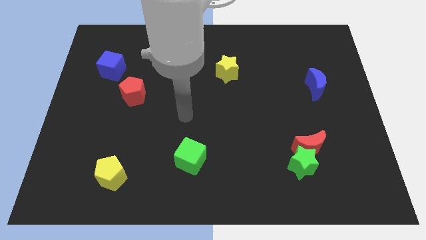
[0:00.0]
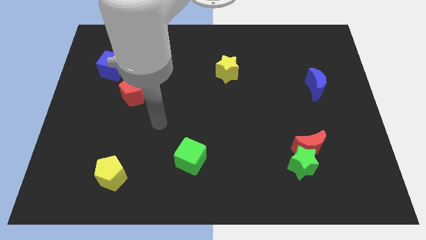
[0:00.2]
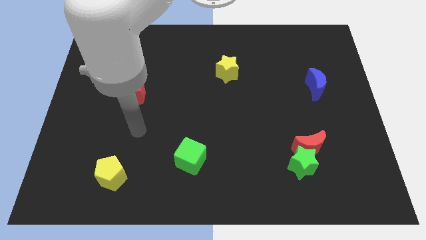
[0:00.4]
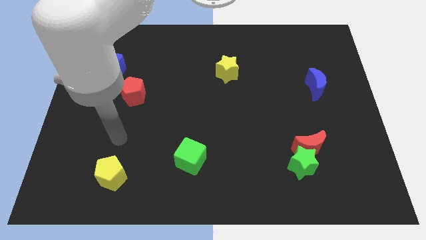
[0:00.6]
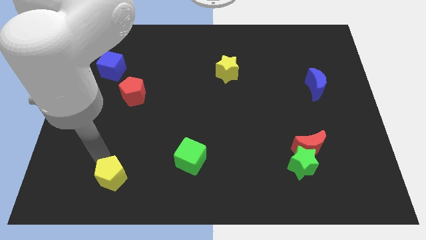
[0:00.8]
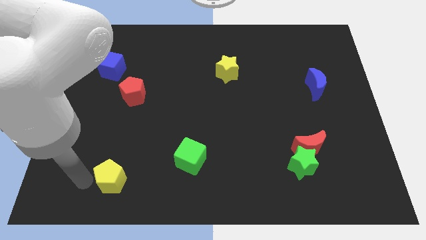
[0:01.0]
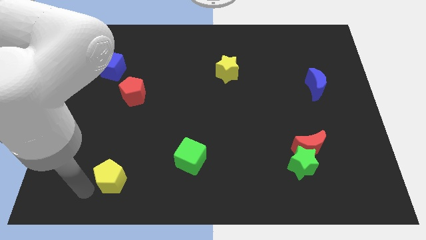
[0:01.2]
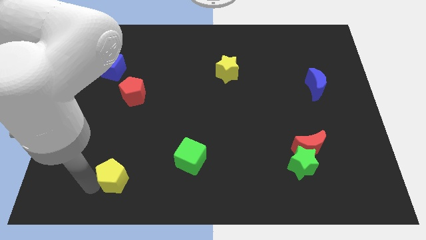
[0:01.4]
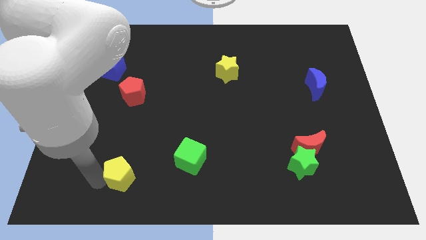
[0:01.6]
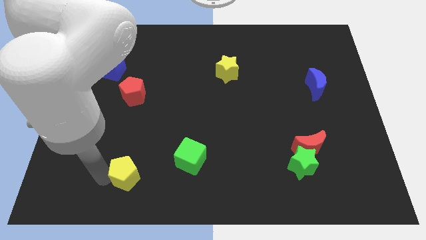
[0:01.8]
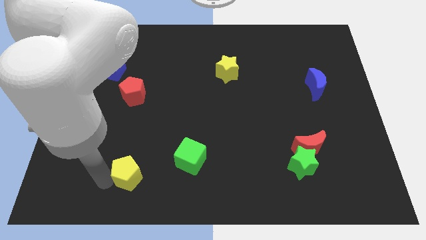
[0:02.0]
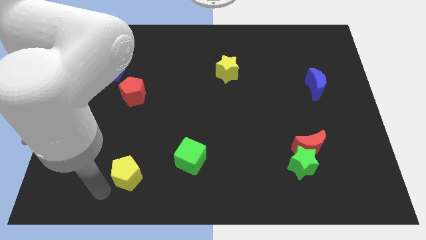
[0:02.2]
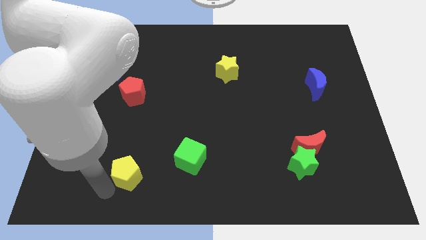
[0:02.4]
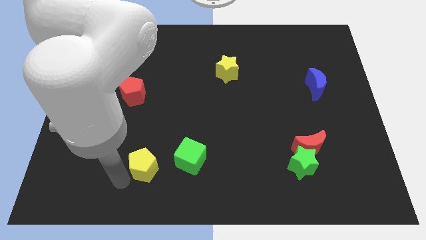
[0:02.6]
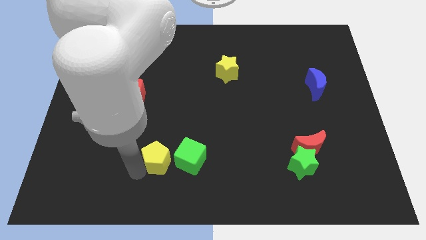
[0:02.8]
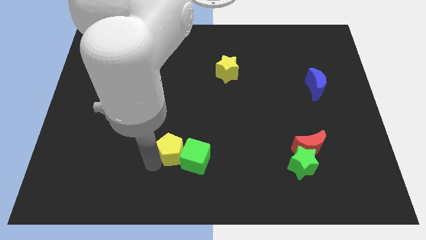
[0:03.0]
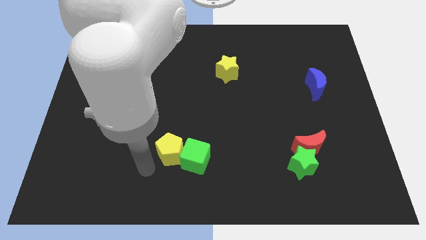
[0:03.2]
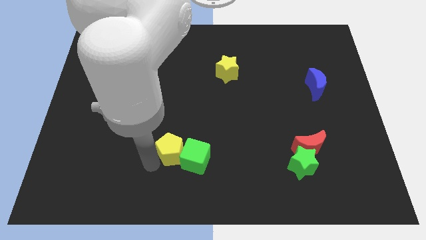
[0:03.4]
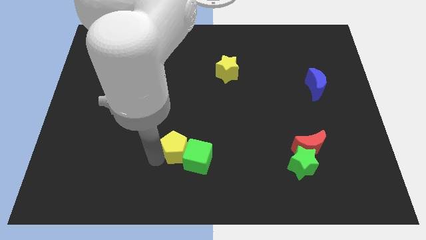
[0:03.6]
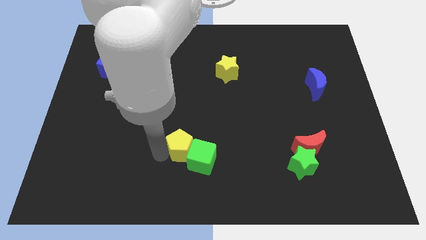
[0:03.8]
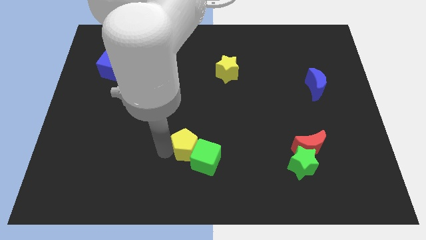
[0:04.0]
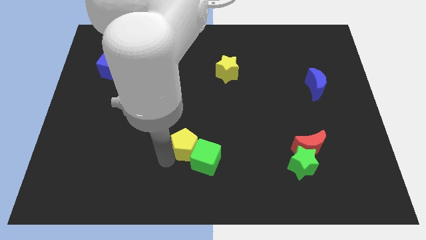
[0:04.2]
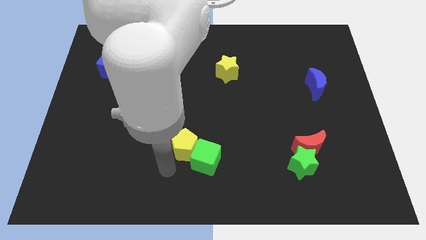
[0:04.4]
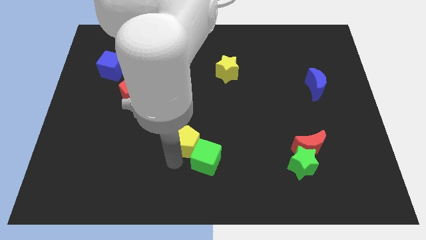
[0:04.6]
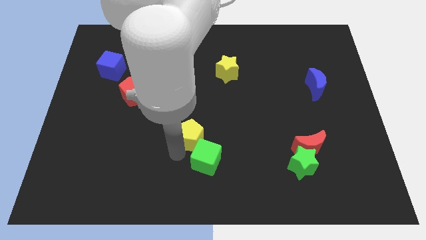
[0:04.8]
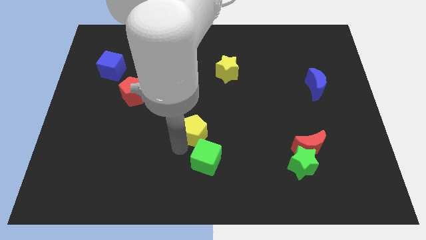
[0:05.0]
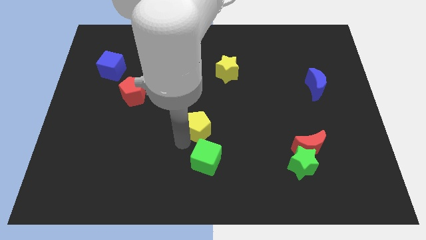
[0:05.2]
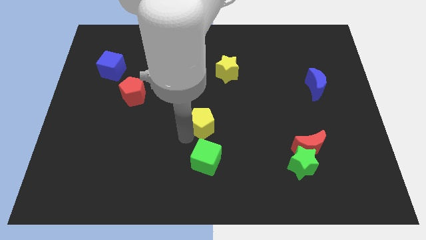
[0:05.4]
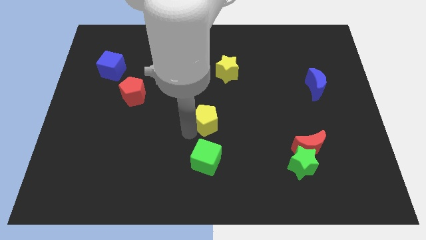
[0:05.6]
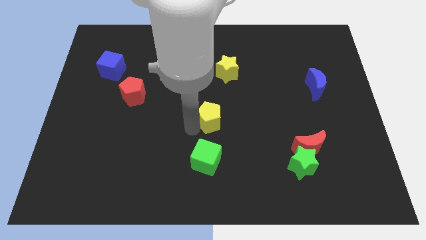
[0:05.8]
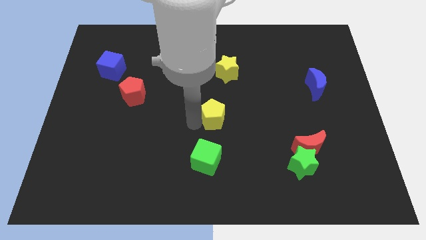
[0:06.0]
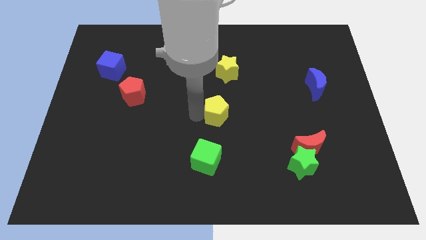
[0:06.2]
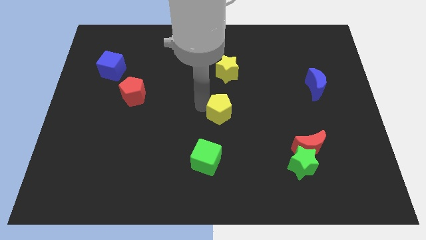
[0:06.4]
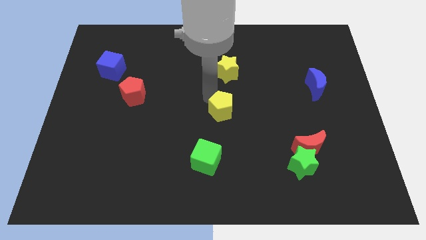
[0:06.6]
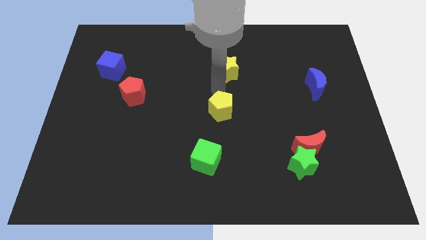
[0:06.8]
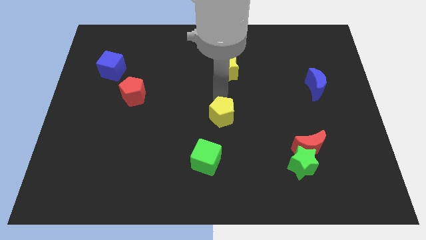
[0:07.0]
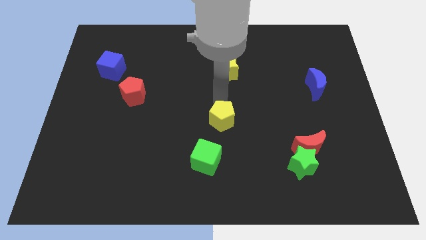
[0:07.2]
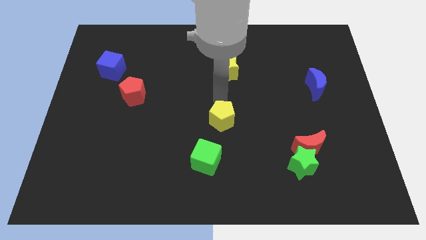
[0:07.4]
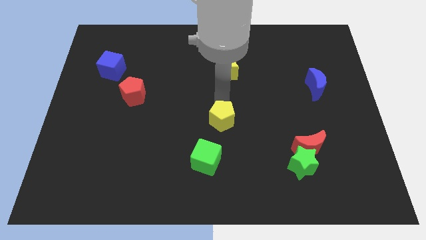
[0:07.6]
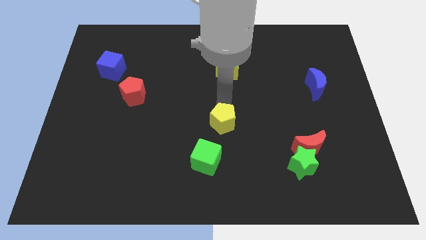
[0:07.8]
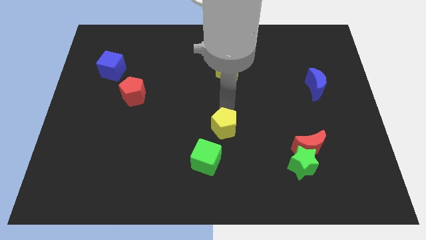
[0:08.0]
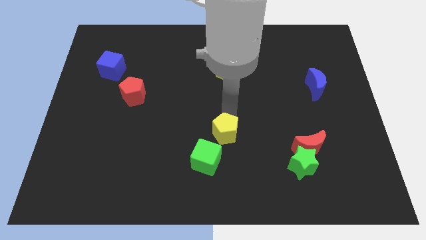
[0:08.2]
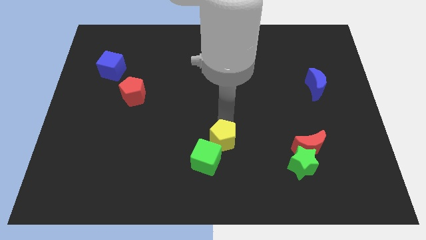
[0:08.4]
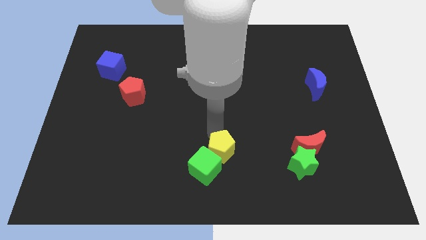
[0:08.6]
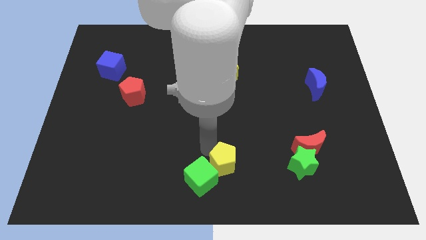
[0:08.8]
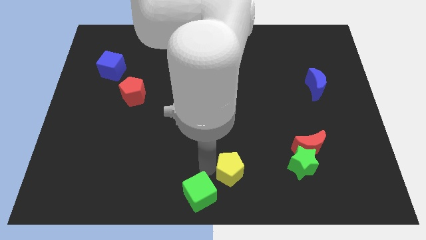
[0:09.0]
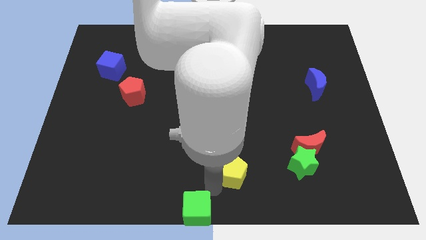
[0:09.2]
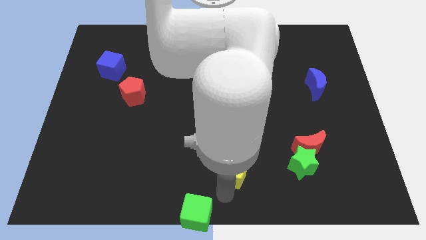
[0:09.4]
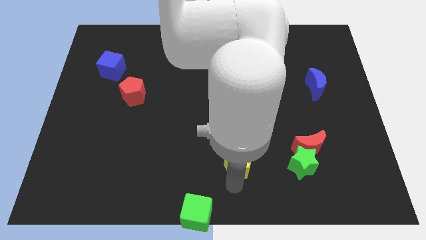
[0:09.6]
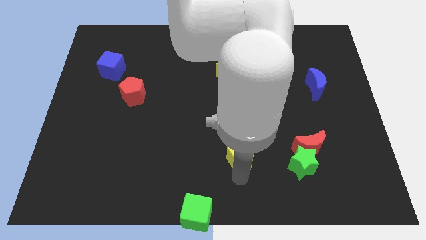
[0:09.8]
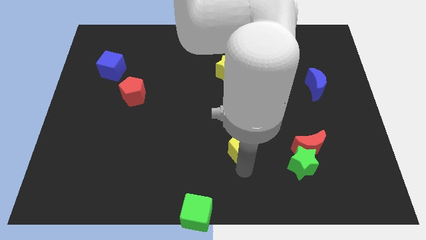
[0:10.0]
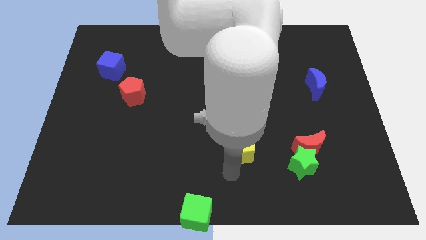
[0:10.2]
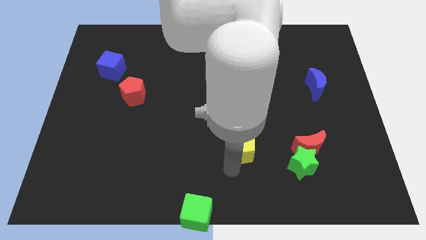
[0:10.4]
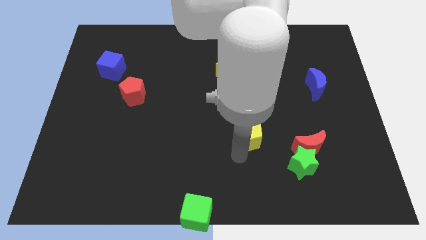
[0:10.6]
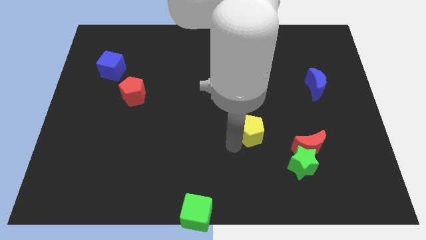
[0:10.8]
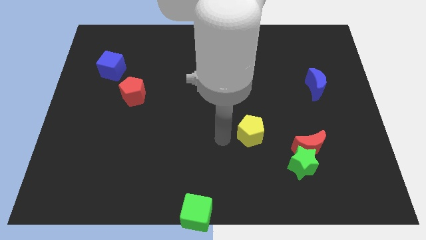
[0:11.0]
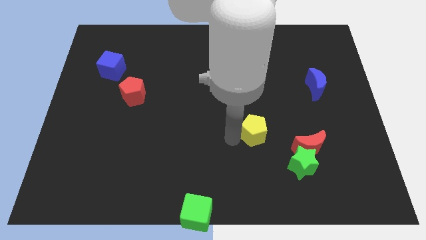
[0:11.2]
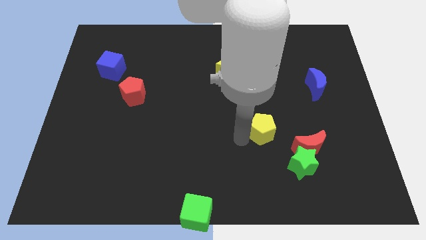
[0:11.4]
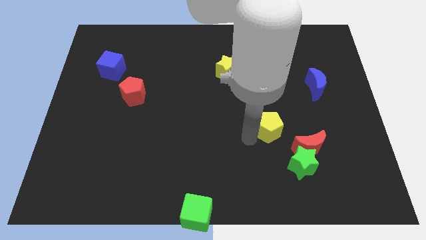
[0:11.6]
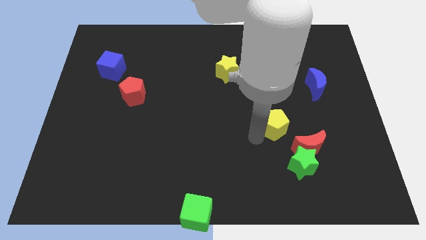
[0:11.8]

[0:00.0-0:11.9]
slide the yellow pentagon above the green star

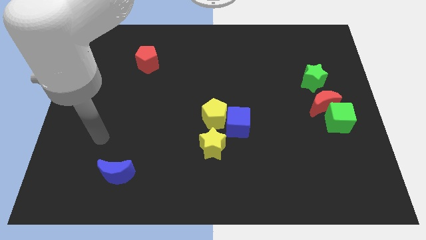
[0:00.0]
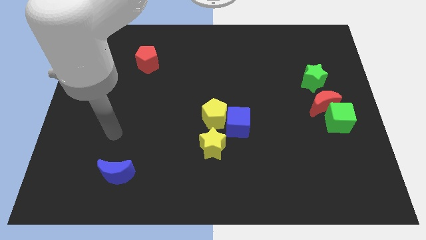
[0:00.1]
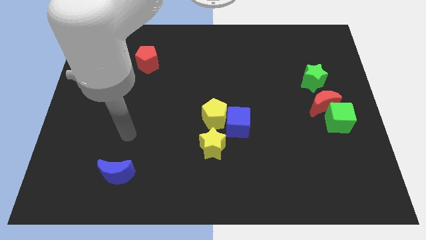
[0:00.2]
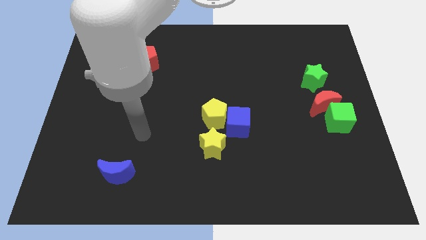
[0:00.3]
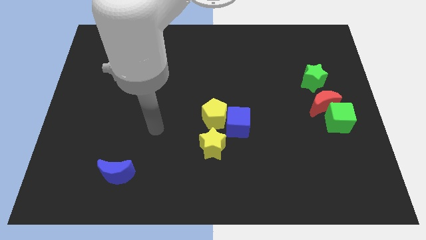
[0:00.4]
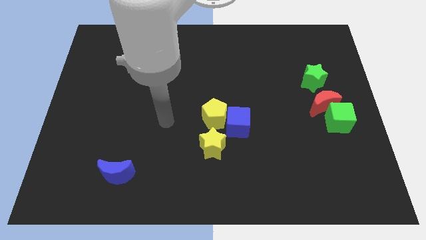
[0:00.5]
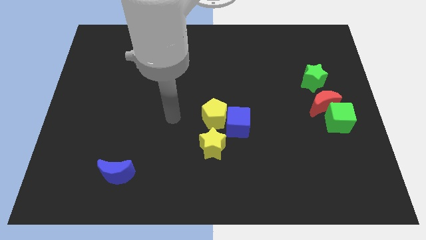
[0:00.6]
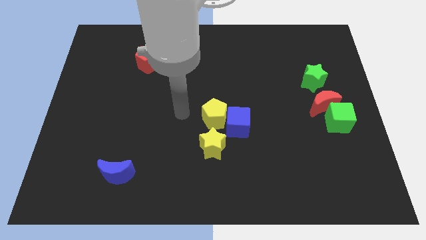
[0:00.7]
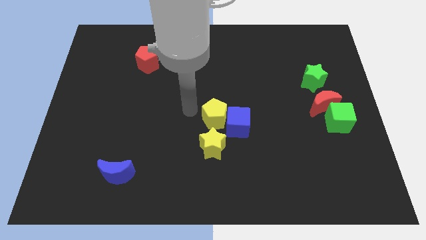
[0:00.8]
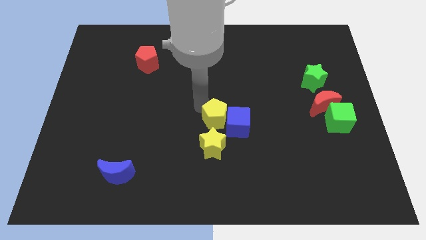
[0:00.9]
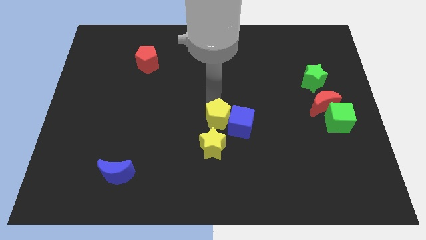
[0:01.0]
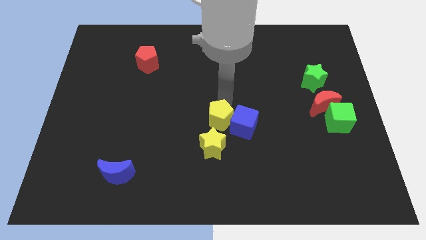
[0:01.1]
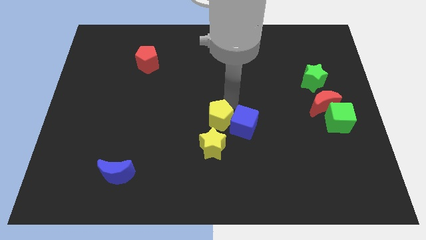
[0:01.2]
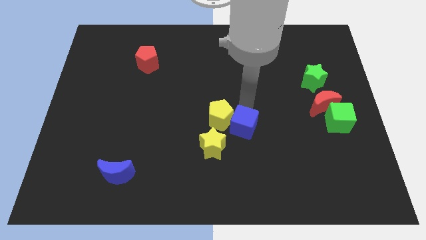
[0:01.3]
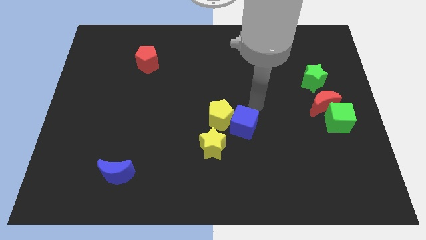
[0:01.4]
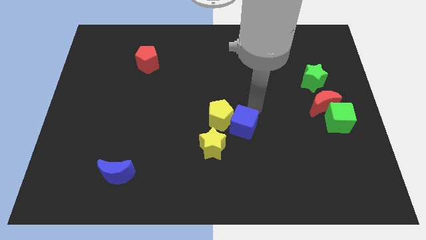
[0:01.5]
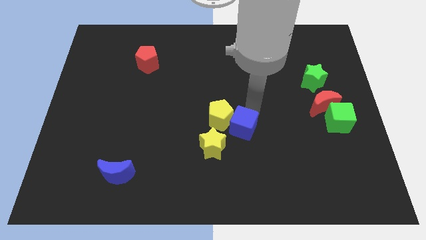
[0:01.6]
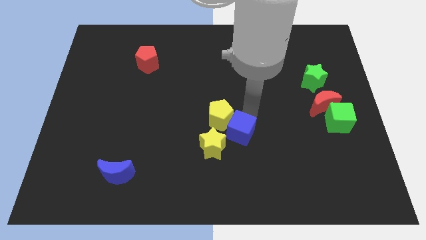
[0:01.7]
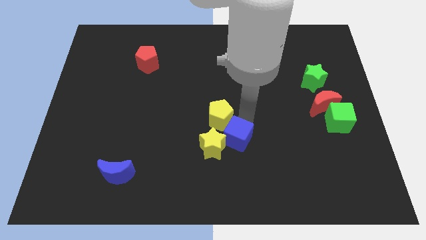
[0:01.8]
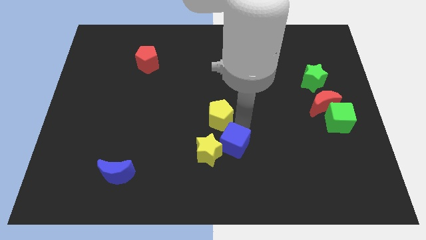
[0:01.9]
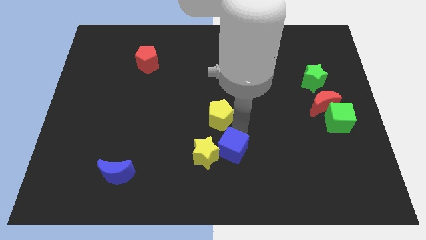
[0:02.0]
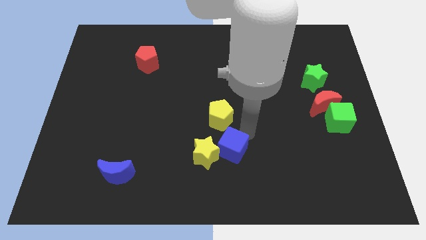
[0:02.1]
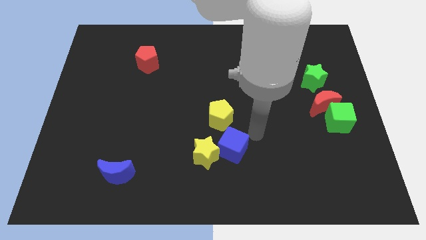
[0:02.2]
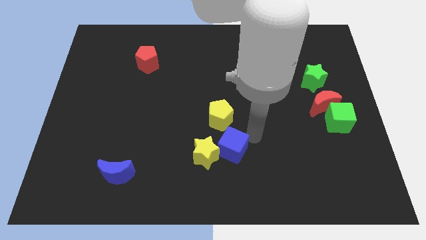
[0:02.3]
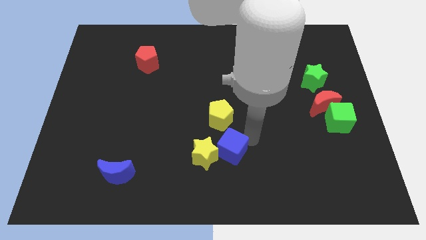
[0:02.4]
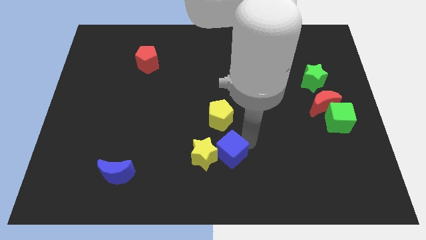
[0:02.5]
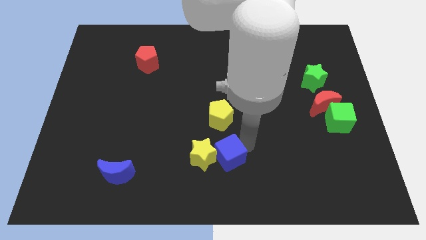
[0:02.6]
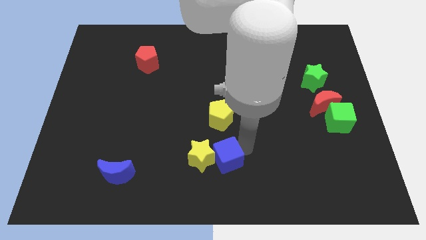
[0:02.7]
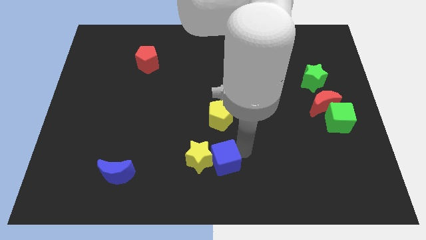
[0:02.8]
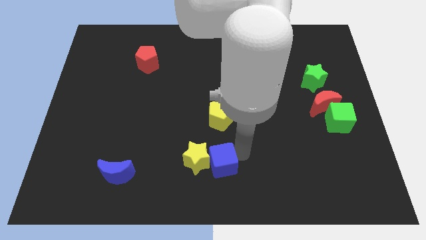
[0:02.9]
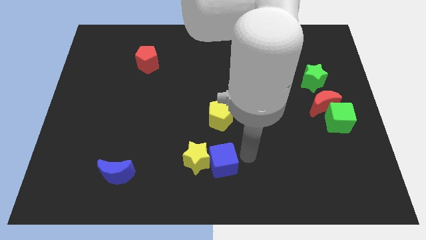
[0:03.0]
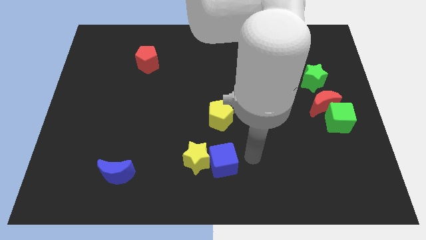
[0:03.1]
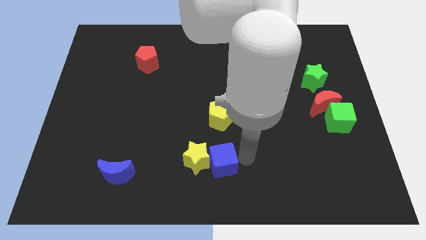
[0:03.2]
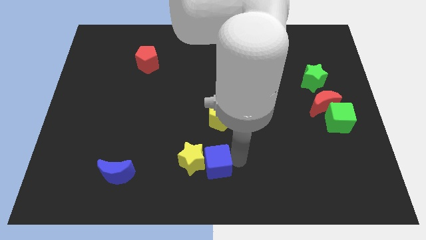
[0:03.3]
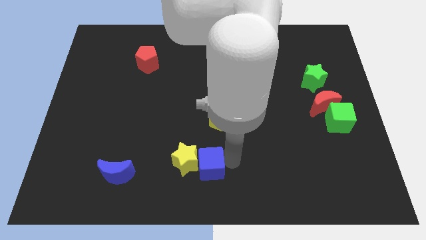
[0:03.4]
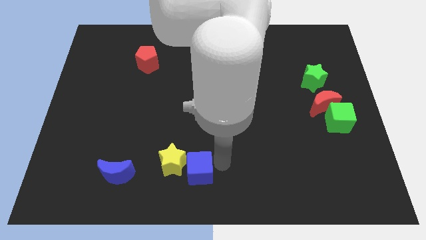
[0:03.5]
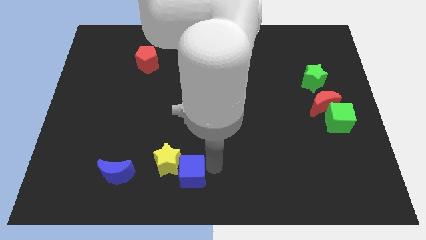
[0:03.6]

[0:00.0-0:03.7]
push the blue cube right of the blue moon
